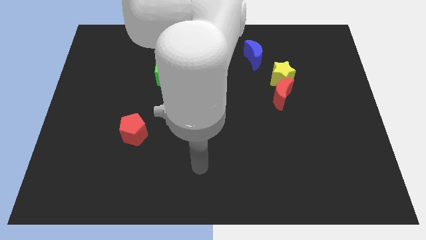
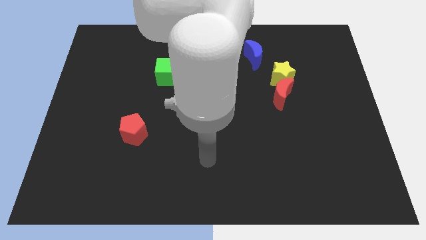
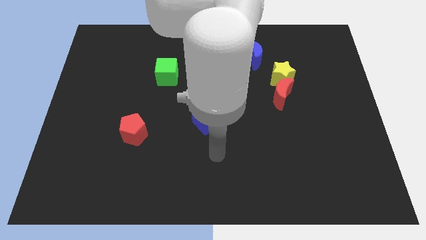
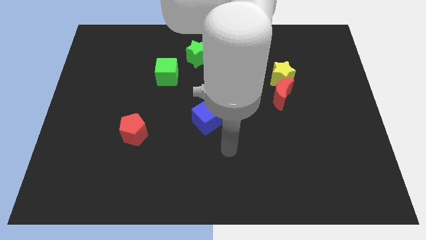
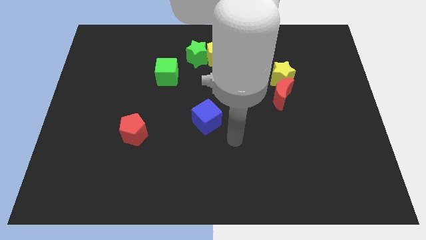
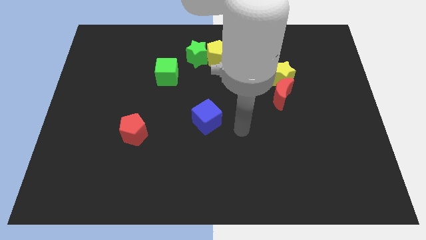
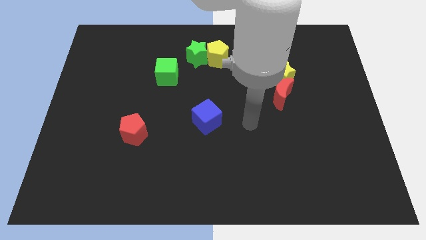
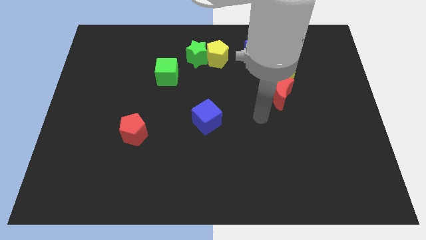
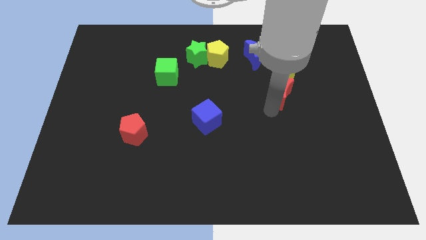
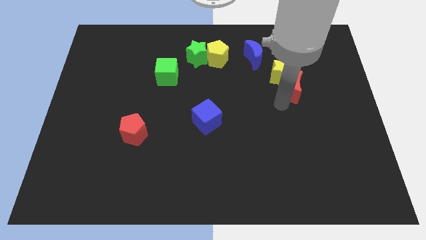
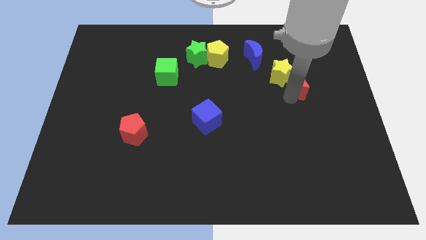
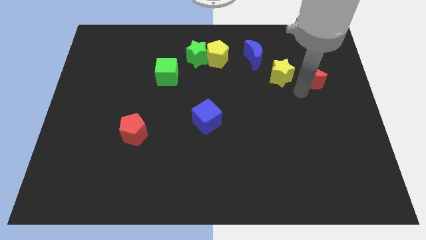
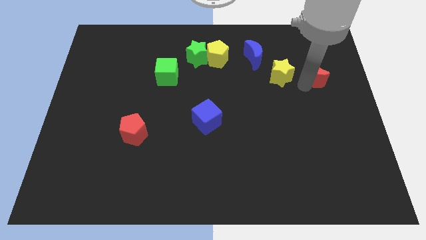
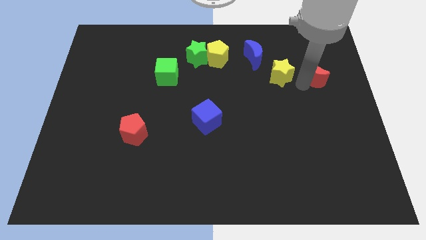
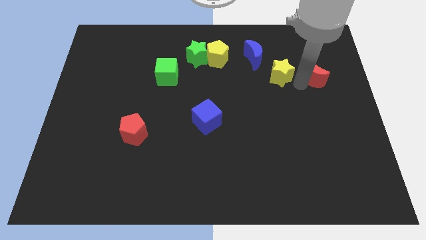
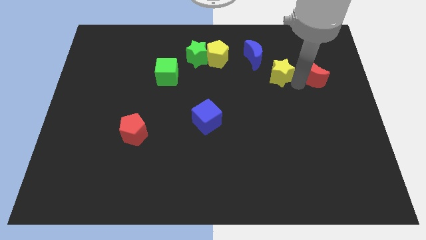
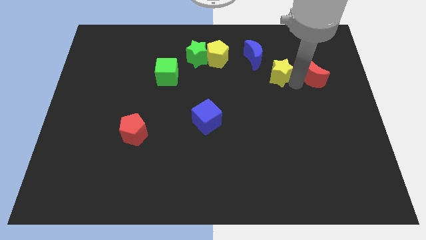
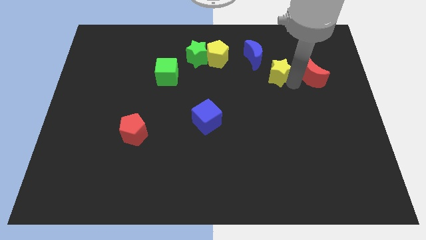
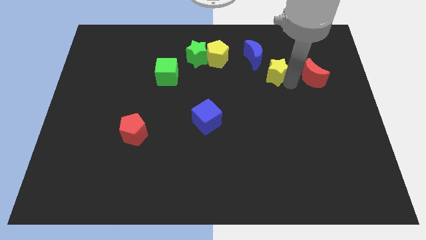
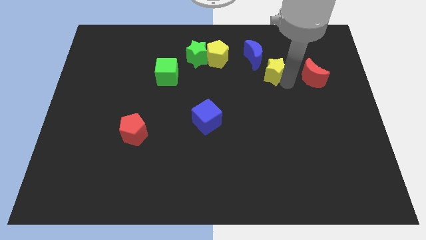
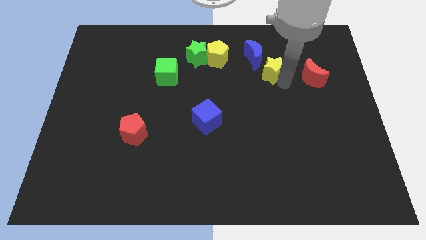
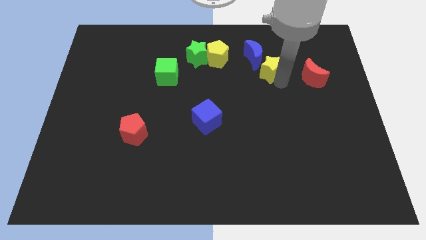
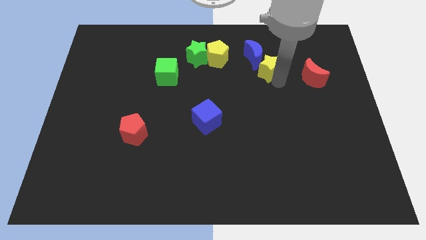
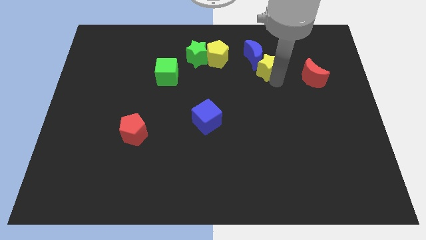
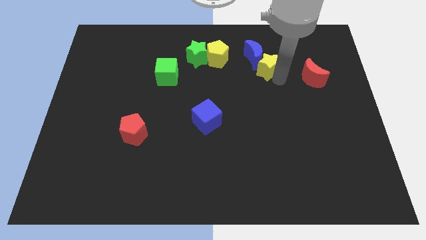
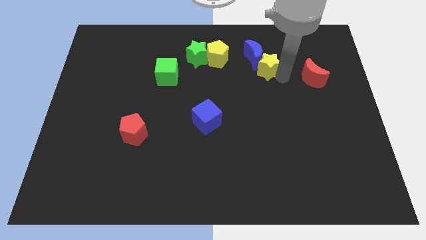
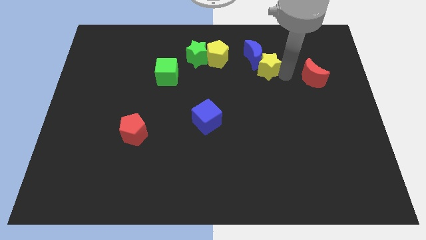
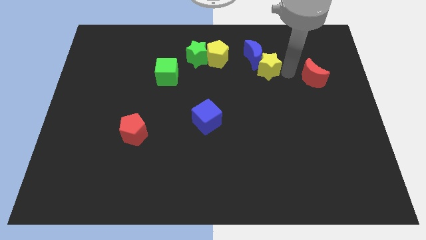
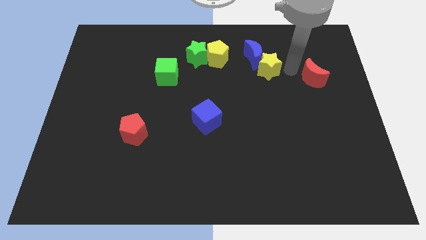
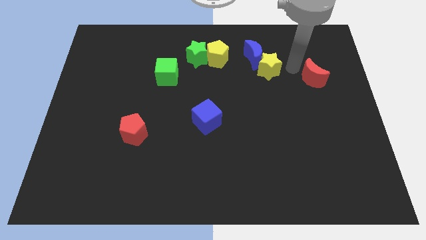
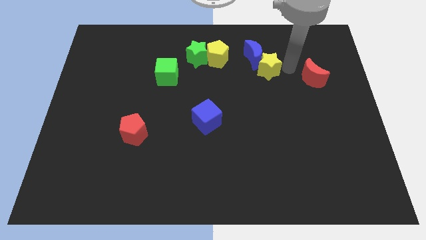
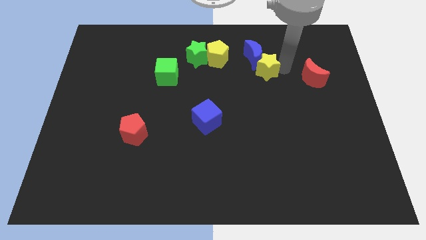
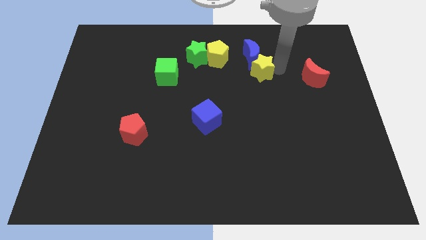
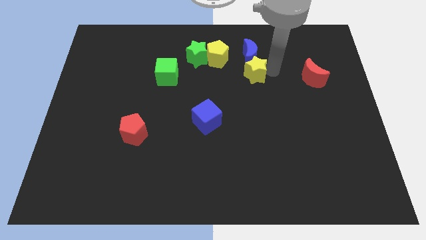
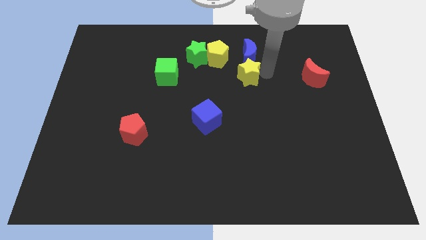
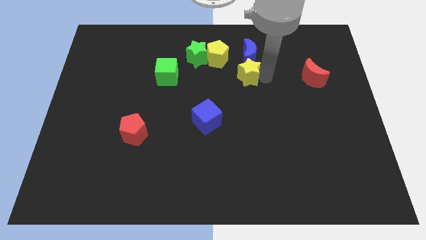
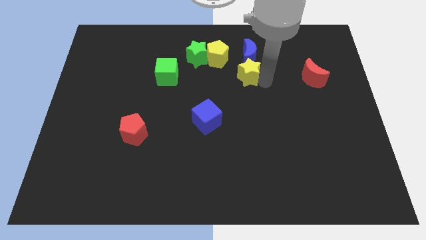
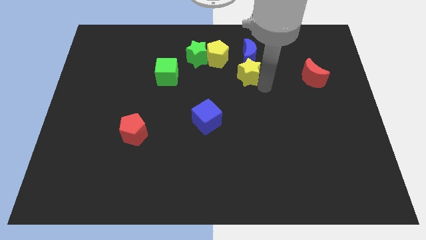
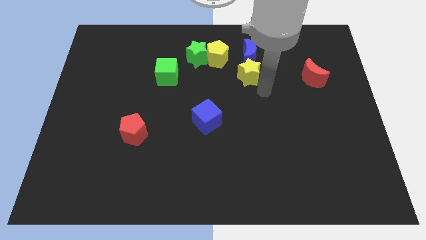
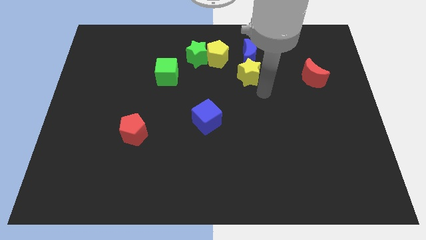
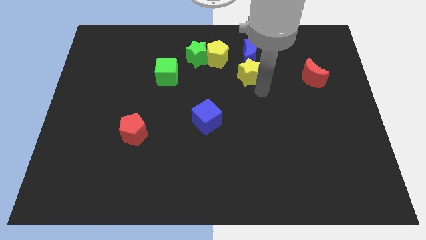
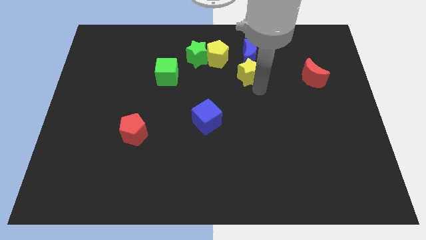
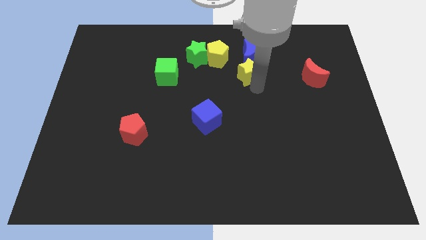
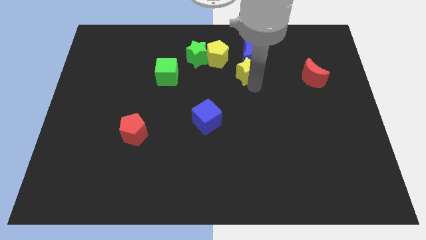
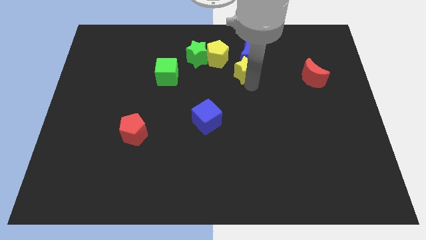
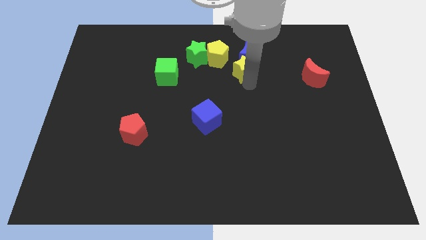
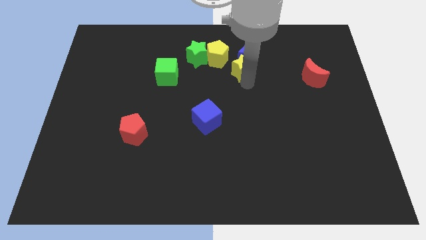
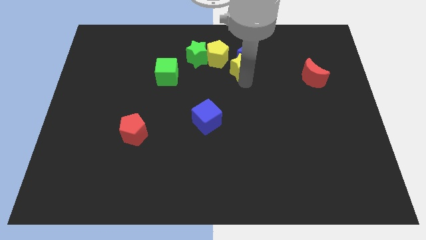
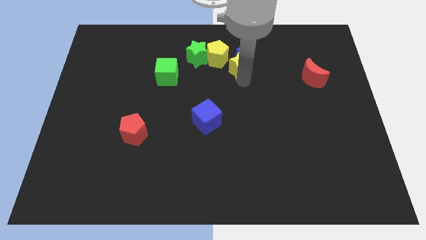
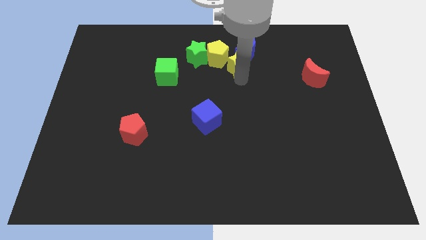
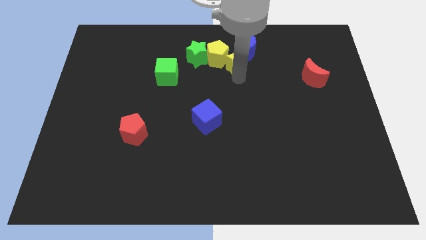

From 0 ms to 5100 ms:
push the yellow star towards the yellow pentagon

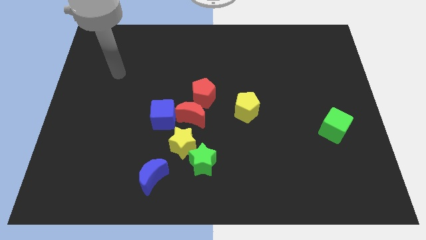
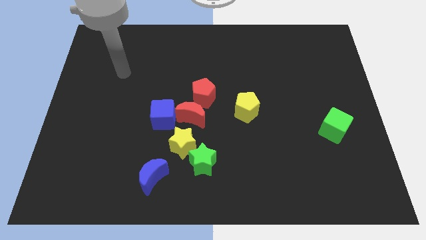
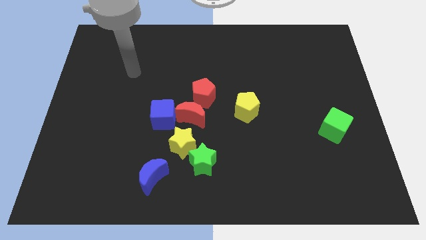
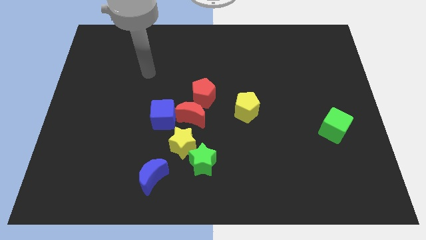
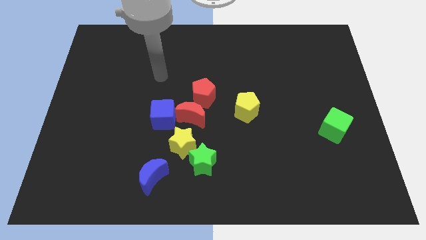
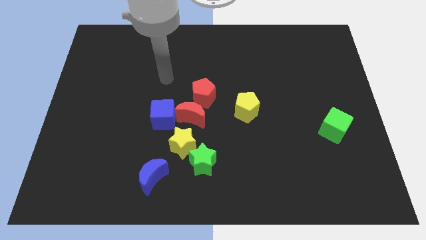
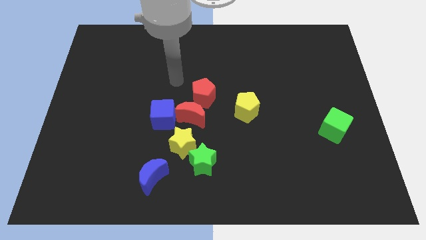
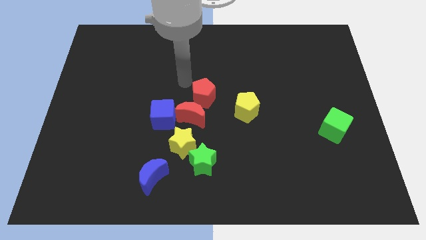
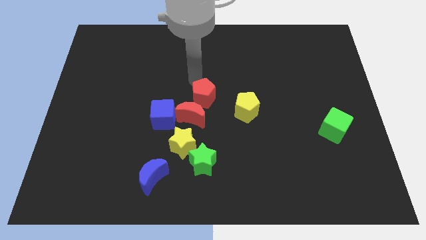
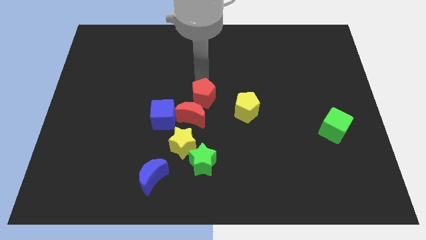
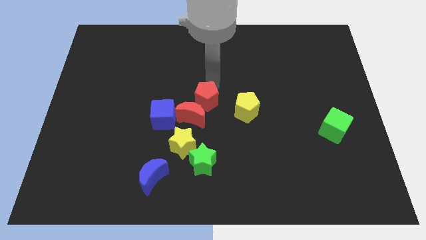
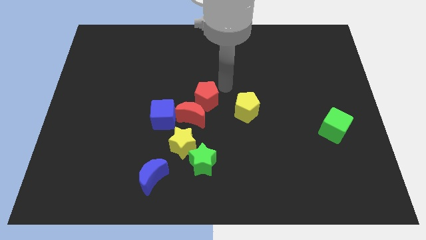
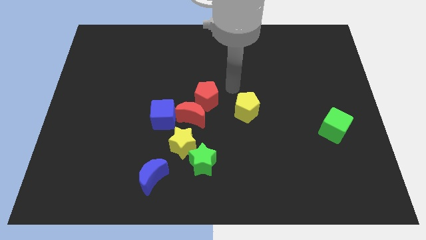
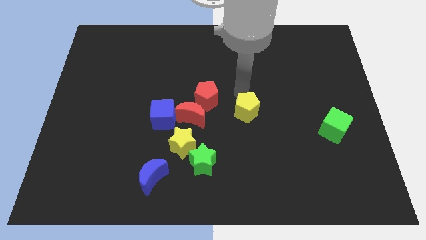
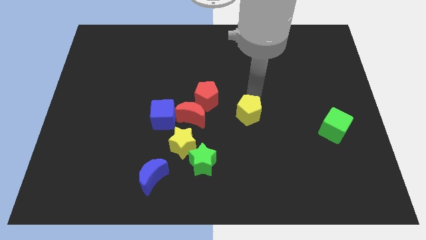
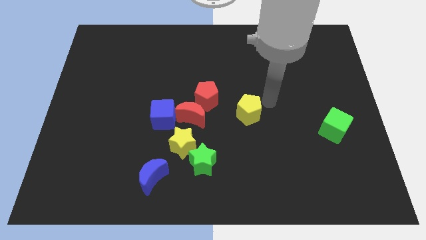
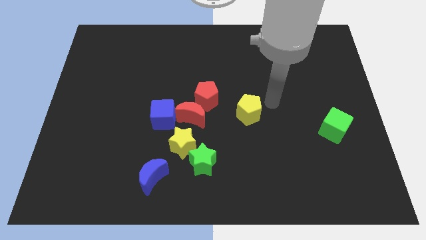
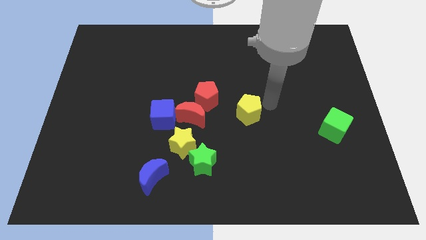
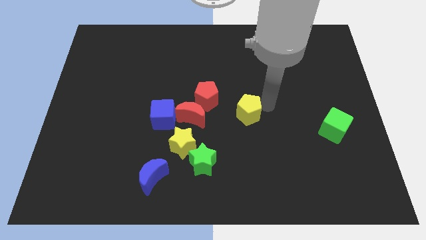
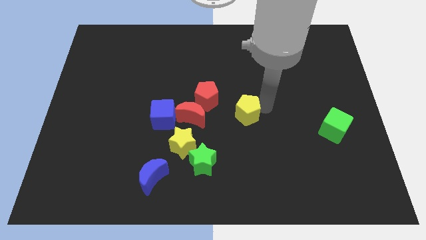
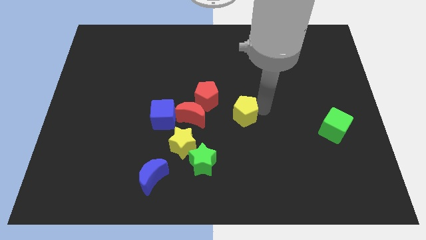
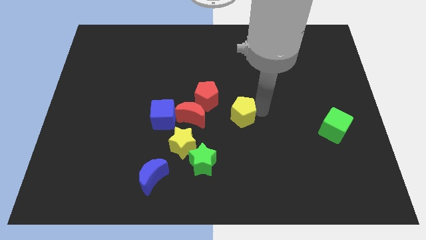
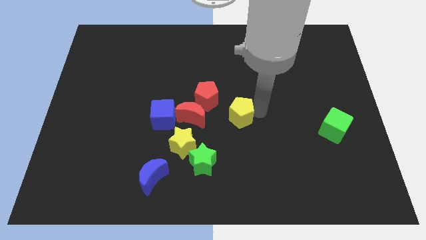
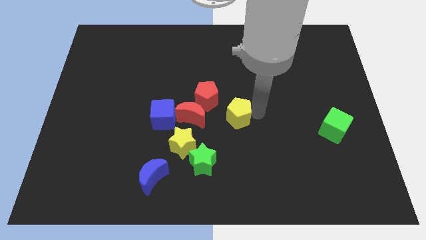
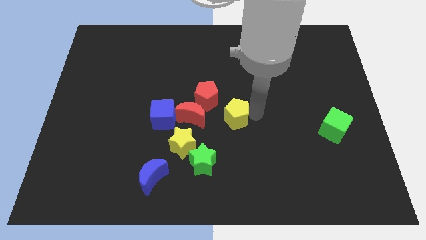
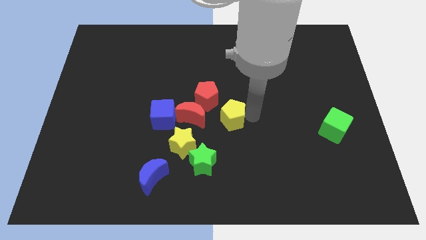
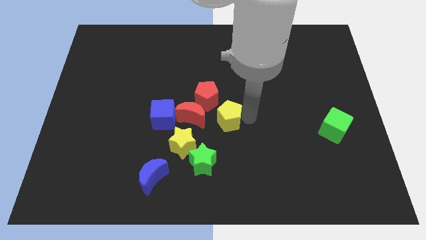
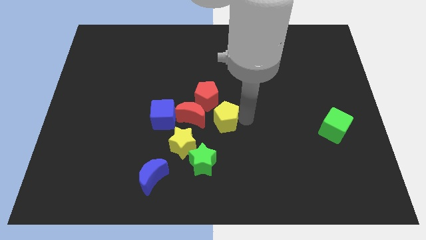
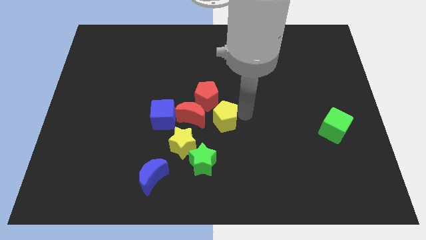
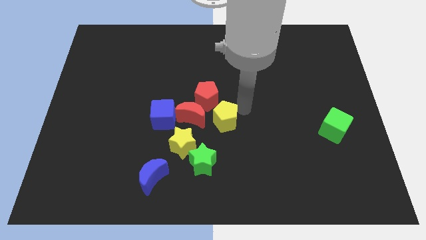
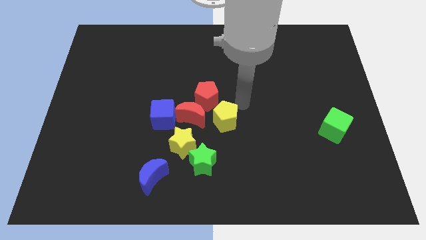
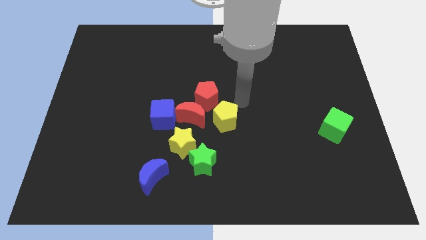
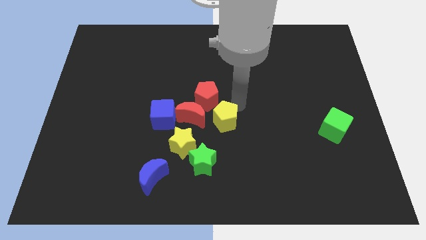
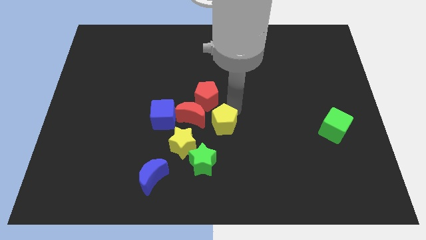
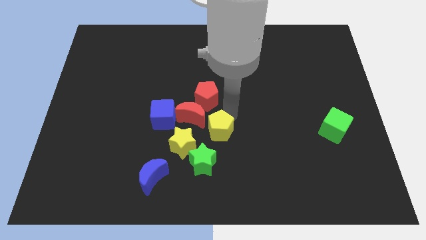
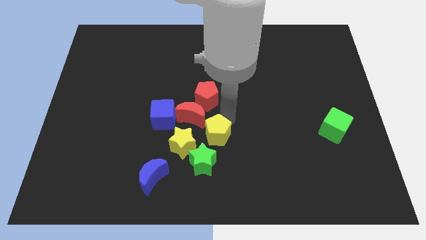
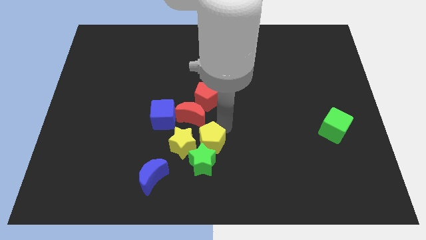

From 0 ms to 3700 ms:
move the yellow pentagon next to the yellow star
